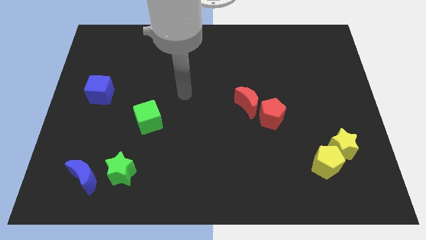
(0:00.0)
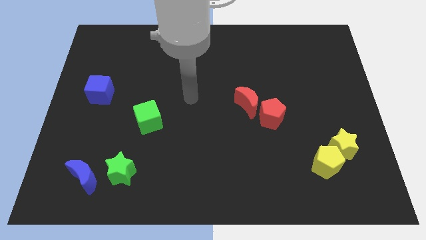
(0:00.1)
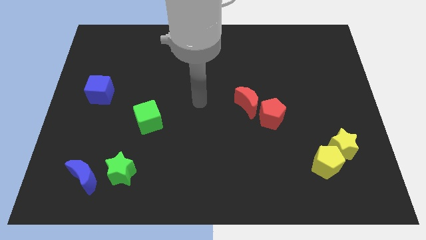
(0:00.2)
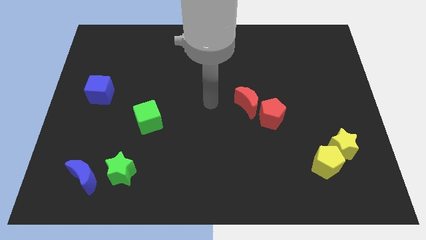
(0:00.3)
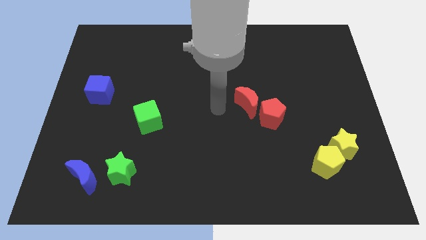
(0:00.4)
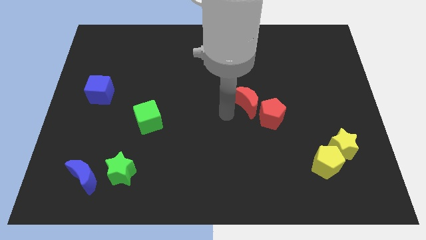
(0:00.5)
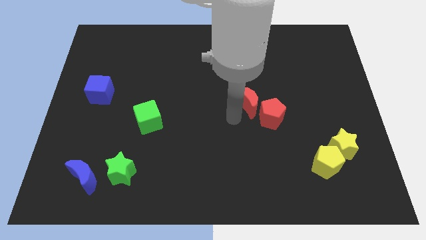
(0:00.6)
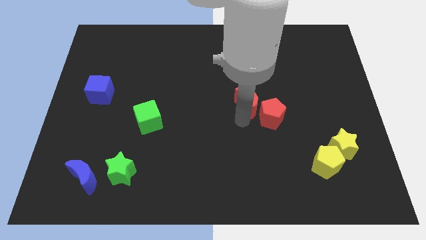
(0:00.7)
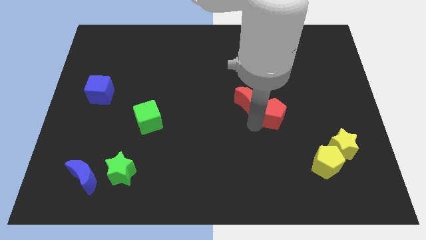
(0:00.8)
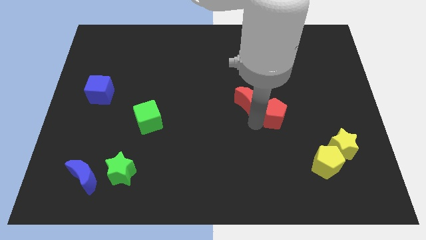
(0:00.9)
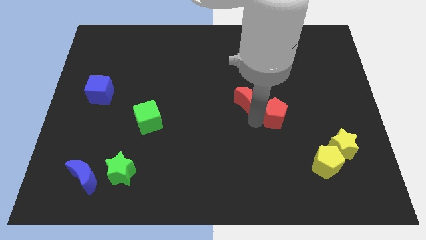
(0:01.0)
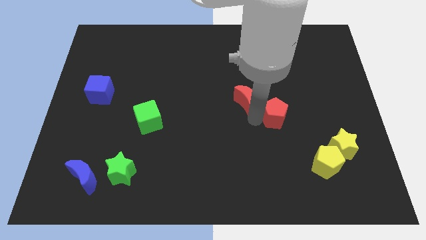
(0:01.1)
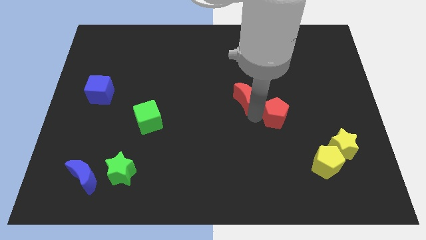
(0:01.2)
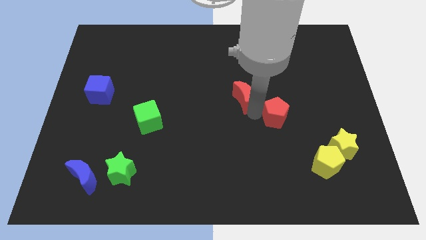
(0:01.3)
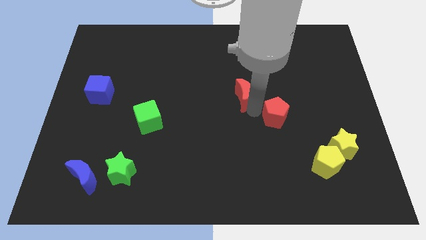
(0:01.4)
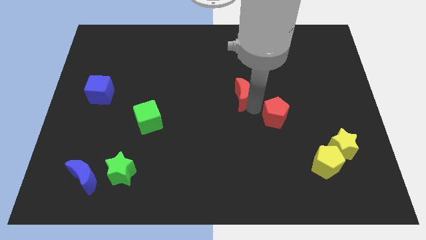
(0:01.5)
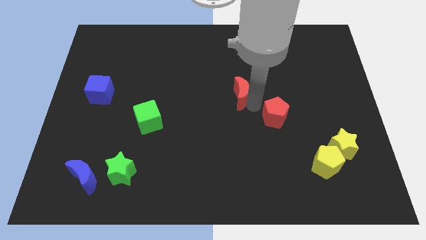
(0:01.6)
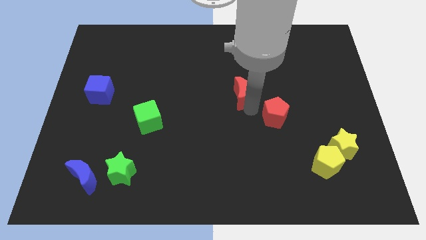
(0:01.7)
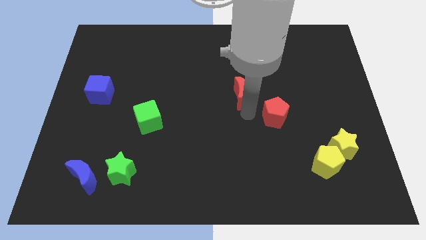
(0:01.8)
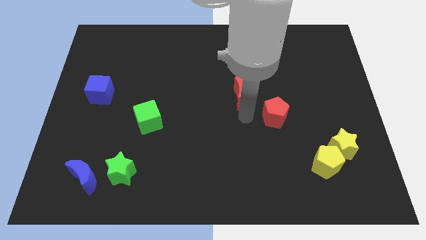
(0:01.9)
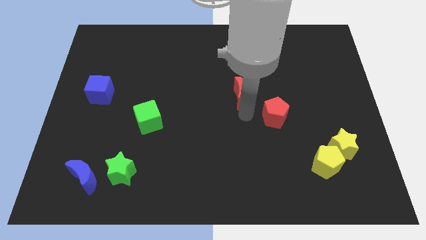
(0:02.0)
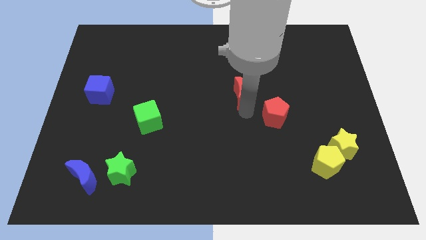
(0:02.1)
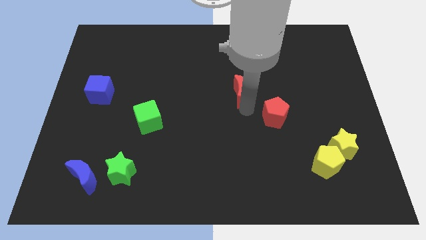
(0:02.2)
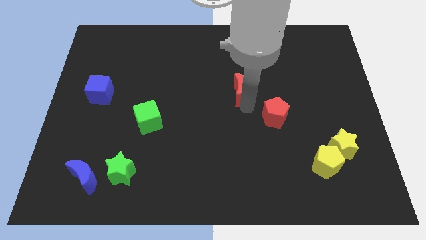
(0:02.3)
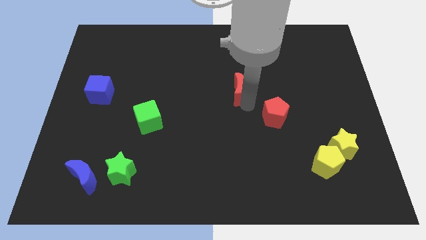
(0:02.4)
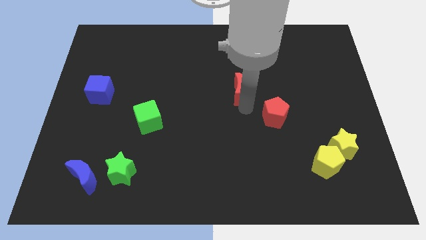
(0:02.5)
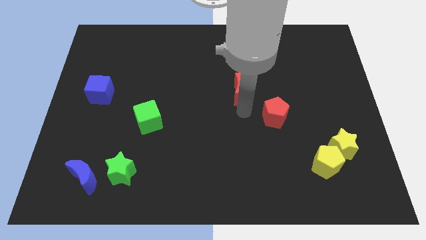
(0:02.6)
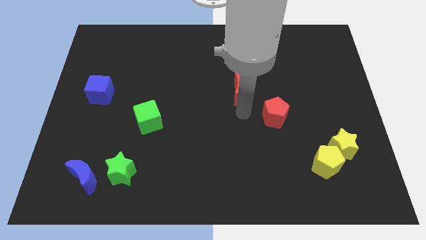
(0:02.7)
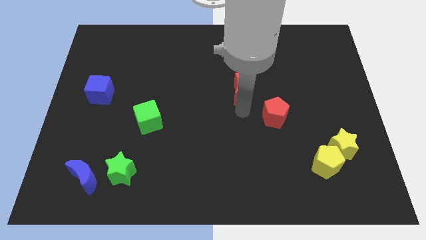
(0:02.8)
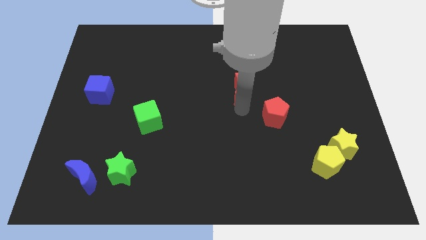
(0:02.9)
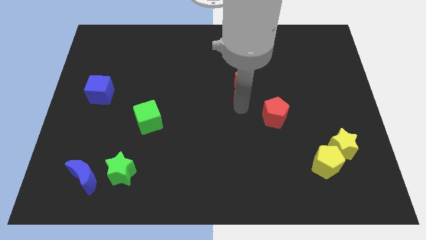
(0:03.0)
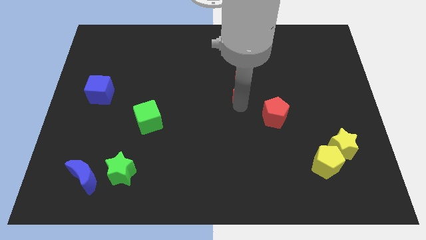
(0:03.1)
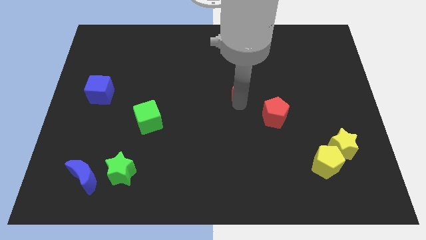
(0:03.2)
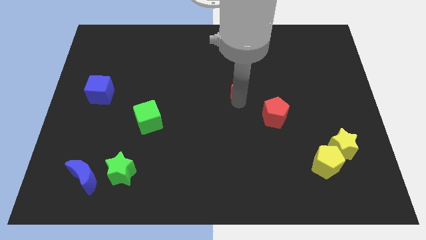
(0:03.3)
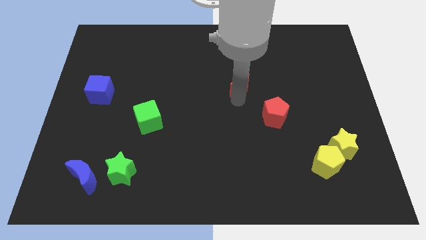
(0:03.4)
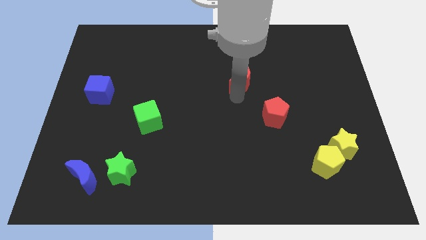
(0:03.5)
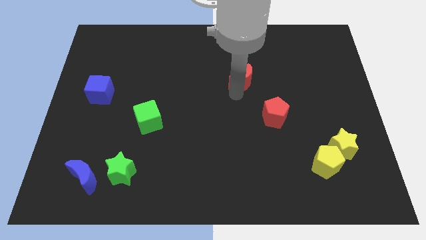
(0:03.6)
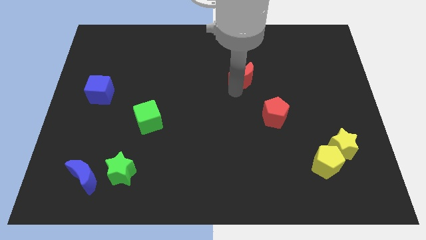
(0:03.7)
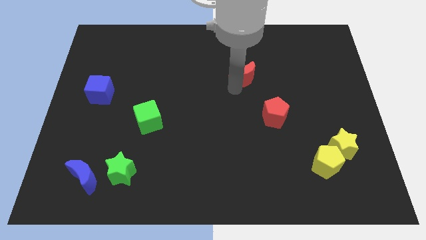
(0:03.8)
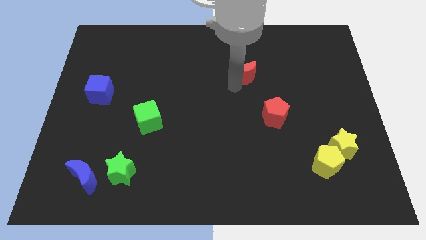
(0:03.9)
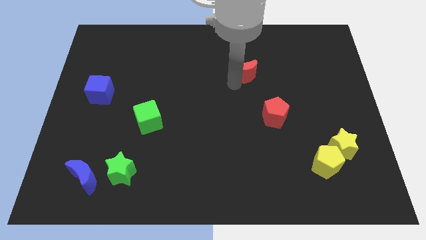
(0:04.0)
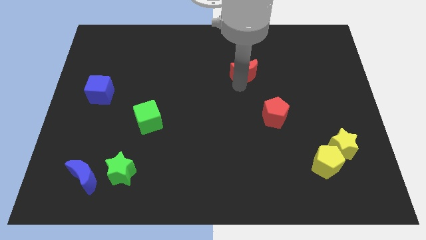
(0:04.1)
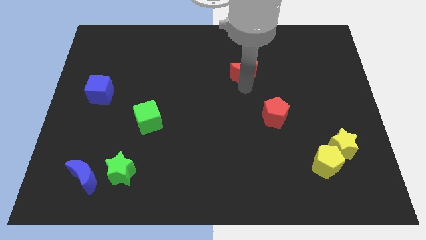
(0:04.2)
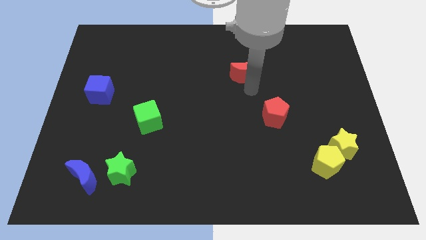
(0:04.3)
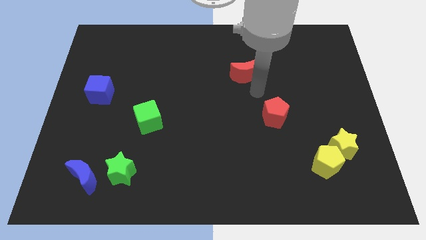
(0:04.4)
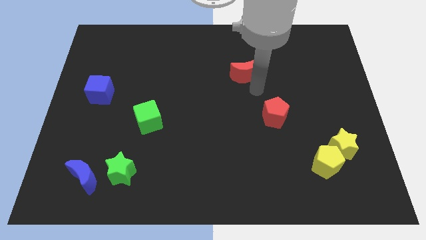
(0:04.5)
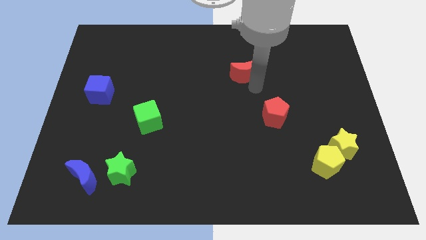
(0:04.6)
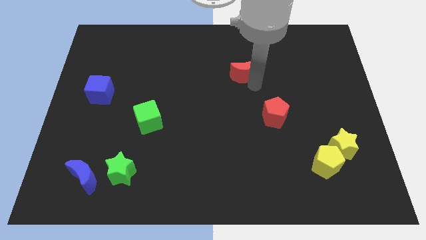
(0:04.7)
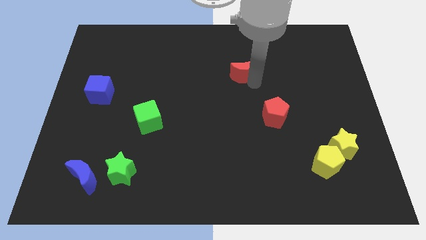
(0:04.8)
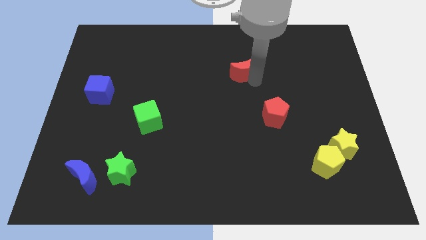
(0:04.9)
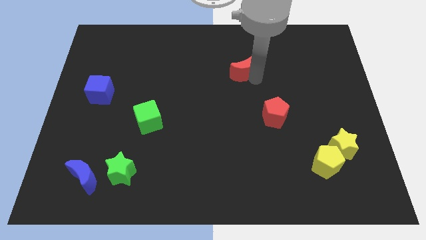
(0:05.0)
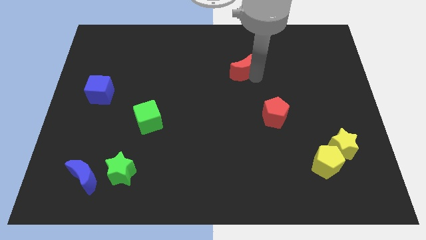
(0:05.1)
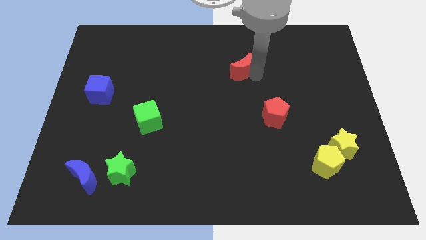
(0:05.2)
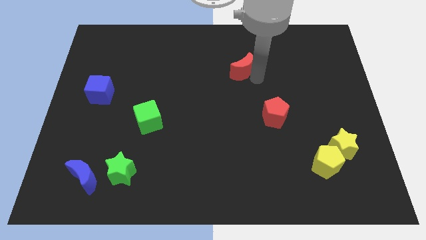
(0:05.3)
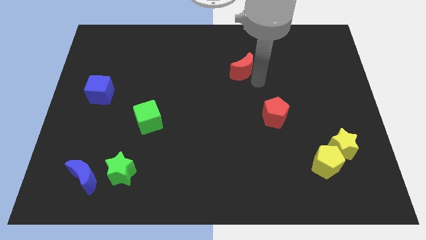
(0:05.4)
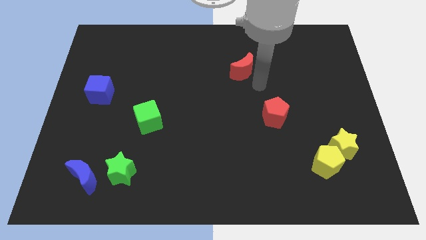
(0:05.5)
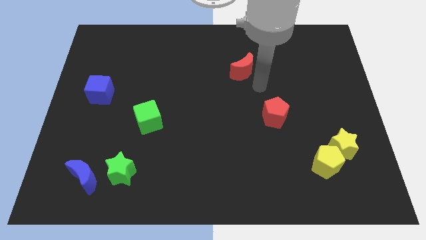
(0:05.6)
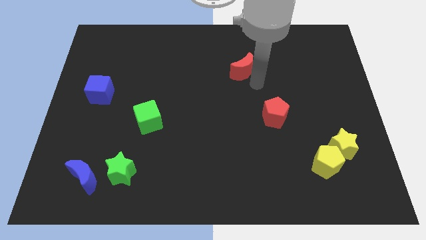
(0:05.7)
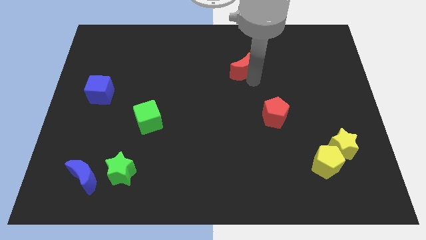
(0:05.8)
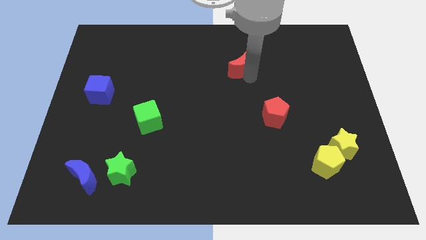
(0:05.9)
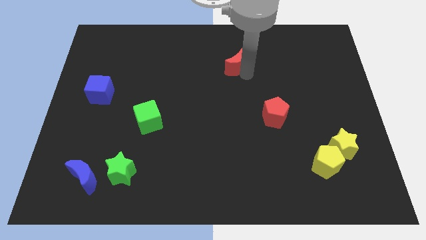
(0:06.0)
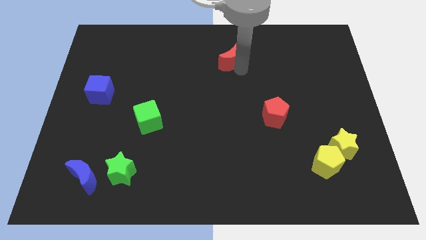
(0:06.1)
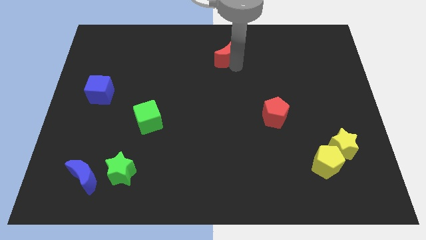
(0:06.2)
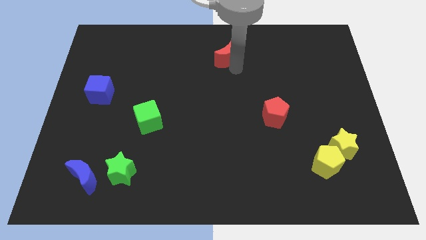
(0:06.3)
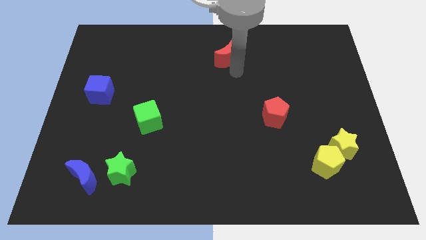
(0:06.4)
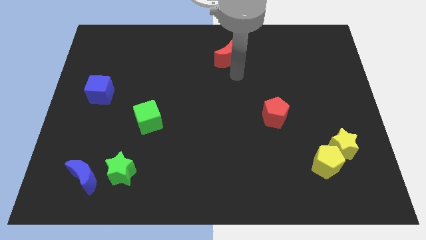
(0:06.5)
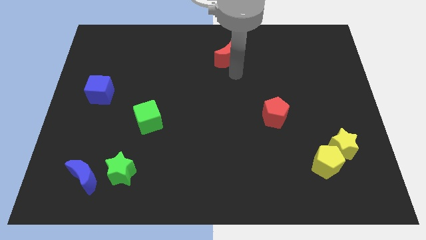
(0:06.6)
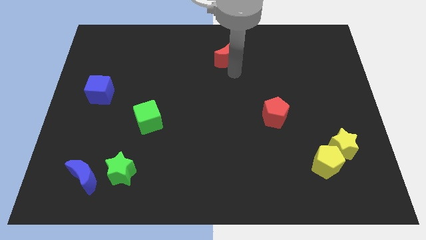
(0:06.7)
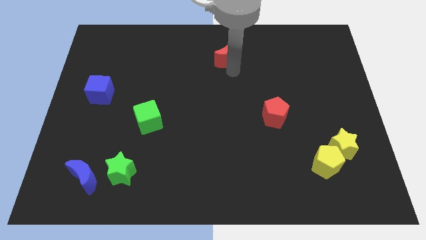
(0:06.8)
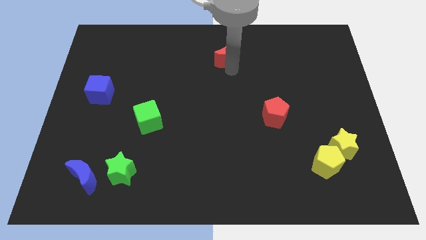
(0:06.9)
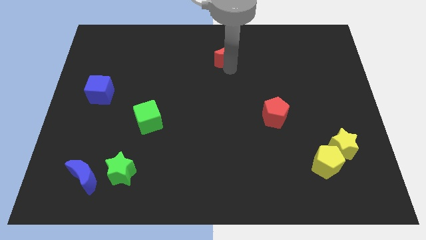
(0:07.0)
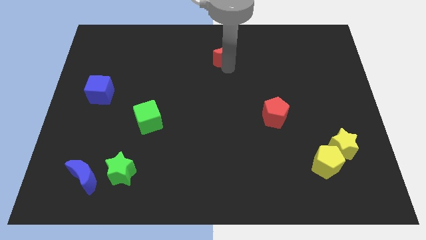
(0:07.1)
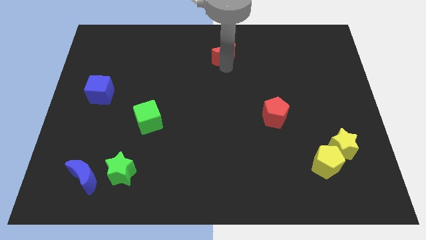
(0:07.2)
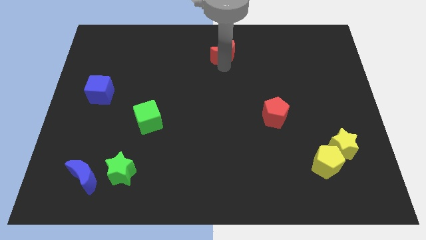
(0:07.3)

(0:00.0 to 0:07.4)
move the red moon to the towards your base
